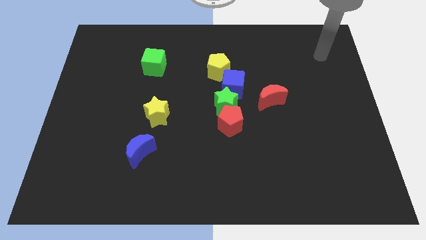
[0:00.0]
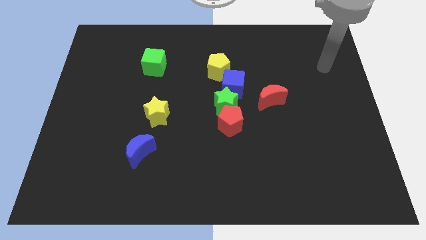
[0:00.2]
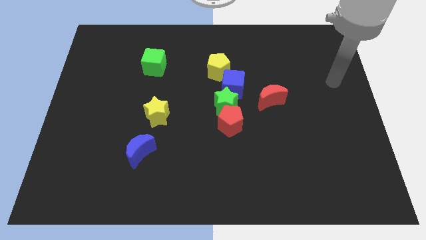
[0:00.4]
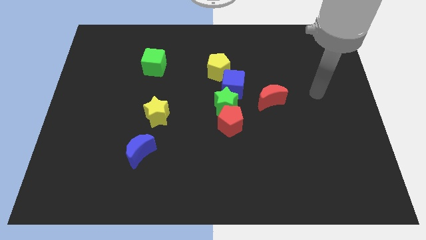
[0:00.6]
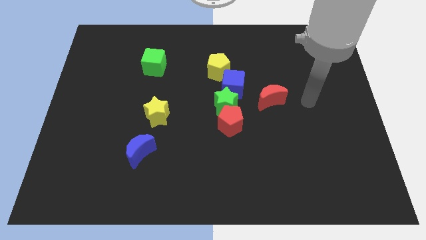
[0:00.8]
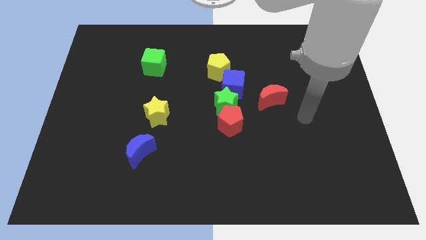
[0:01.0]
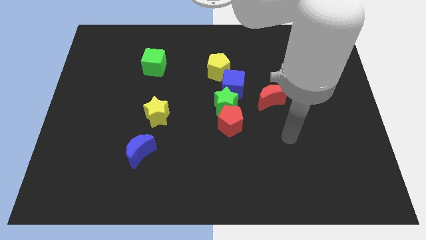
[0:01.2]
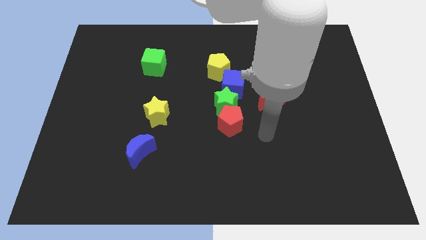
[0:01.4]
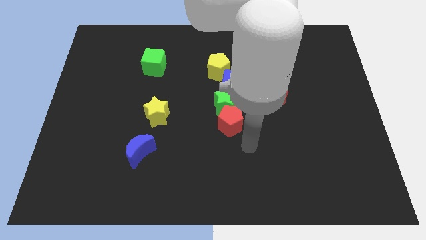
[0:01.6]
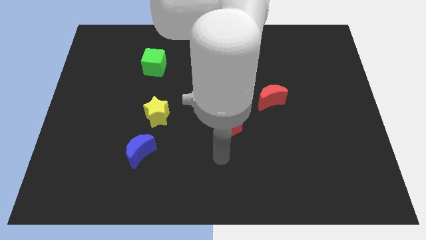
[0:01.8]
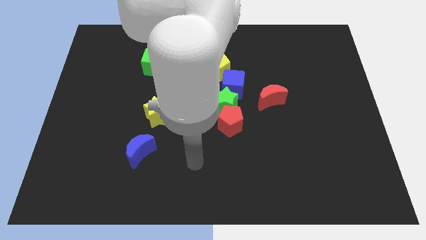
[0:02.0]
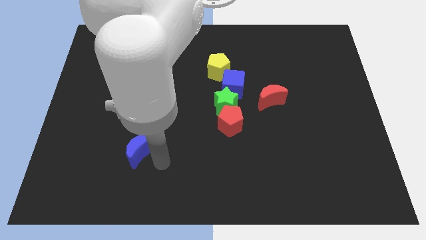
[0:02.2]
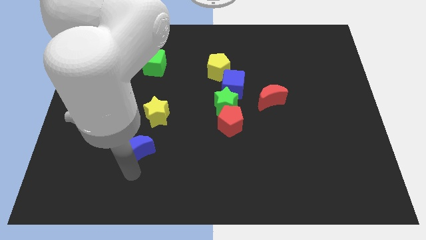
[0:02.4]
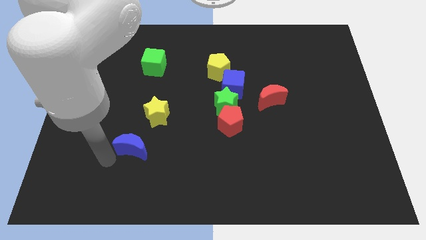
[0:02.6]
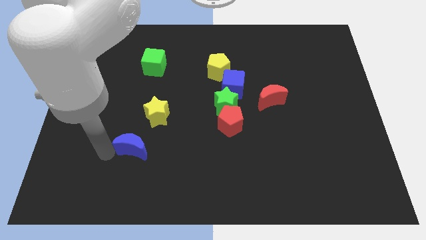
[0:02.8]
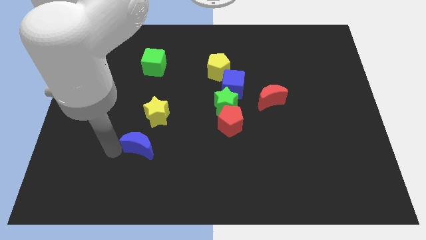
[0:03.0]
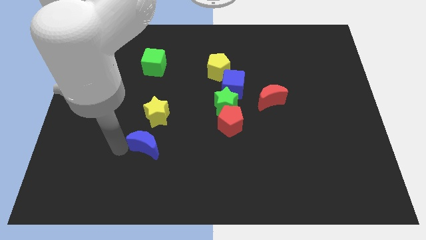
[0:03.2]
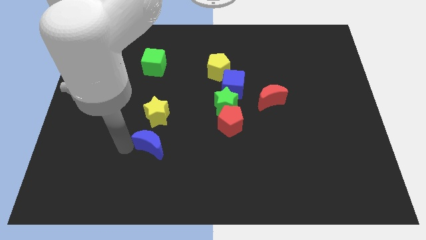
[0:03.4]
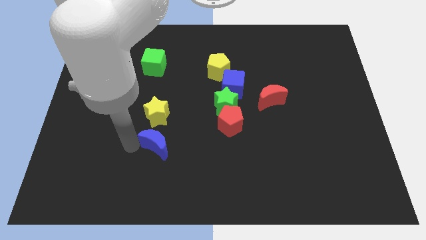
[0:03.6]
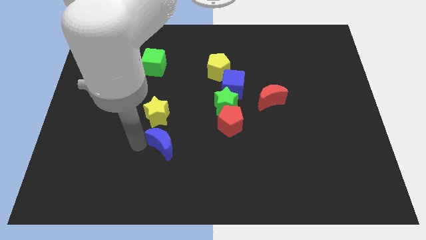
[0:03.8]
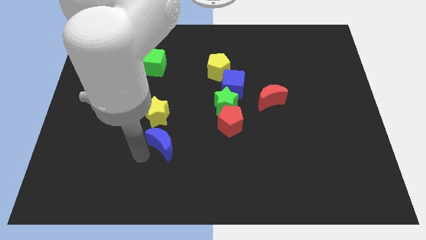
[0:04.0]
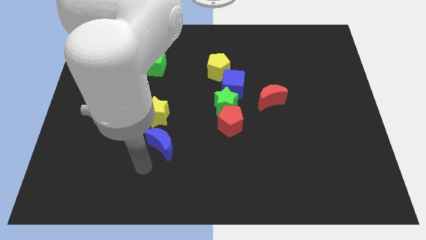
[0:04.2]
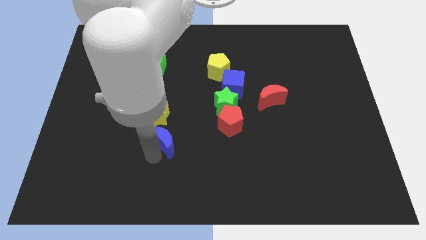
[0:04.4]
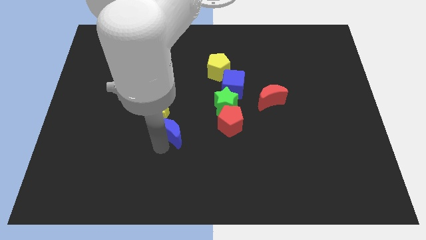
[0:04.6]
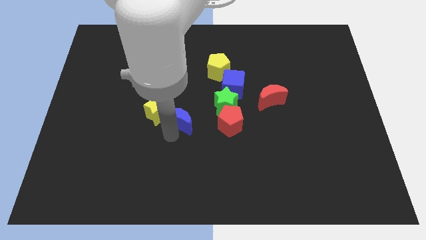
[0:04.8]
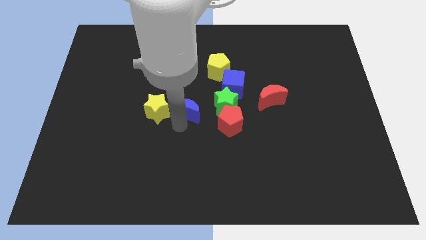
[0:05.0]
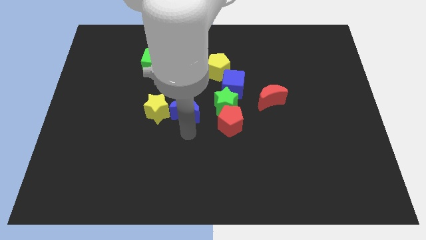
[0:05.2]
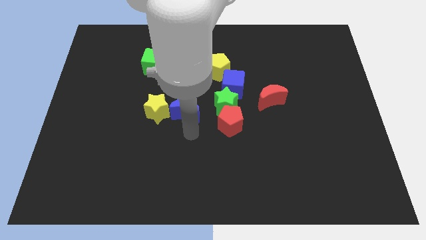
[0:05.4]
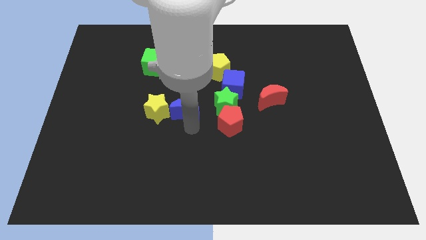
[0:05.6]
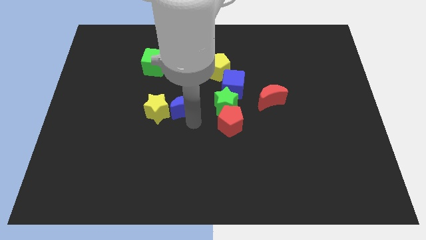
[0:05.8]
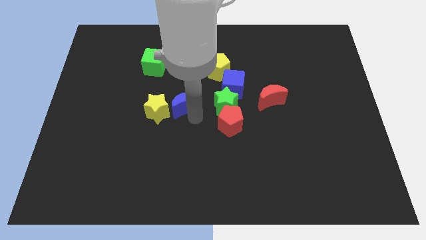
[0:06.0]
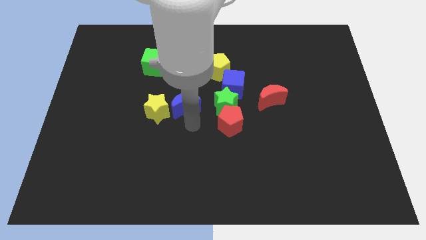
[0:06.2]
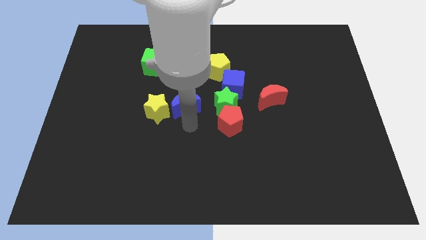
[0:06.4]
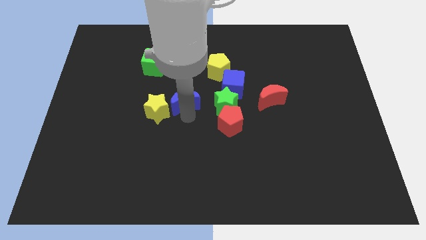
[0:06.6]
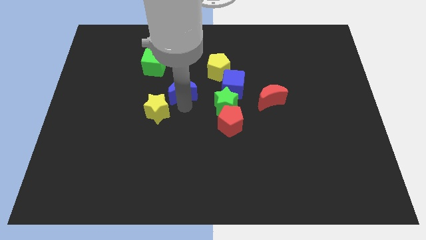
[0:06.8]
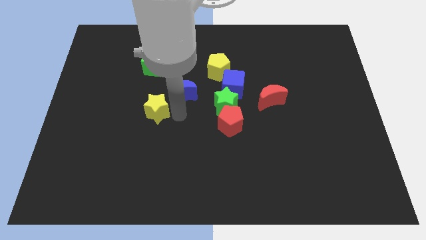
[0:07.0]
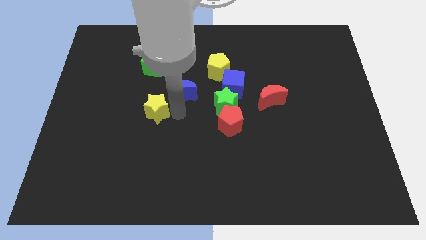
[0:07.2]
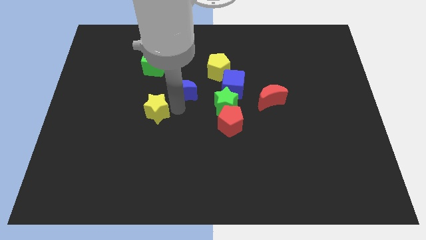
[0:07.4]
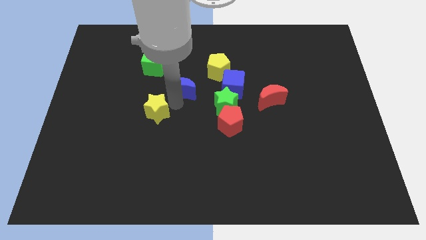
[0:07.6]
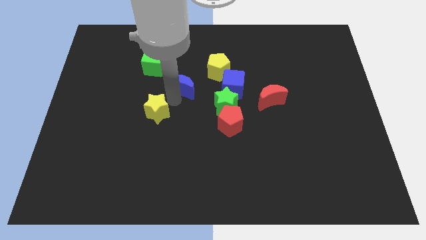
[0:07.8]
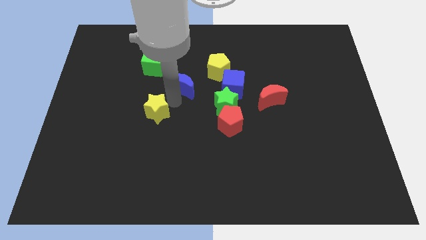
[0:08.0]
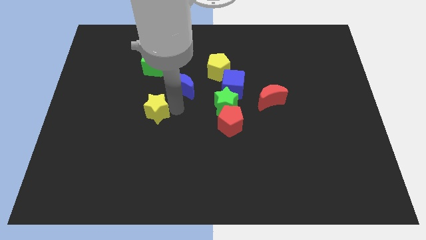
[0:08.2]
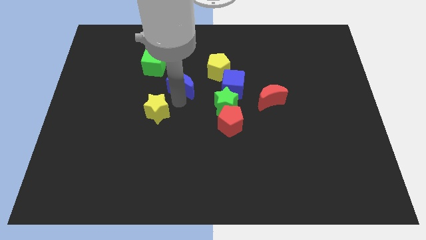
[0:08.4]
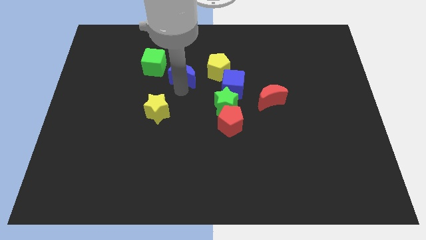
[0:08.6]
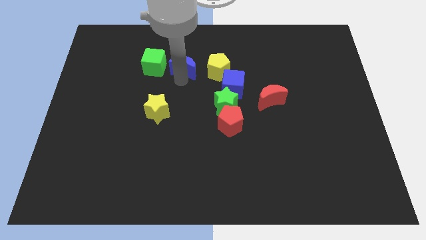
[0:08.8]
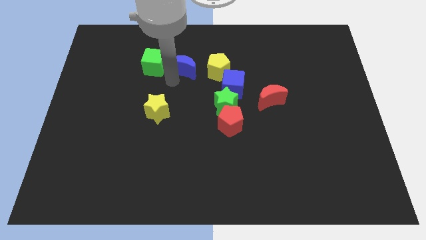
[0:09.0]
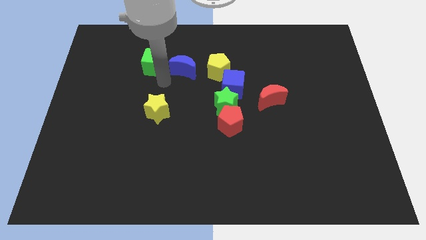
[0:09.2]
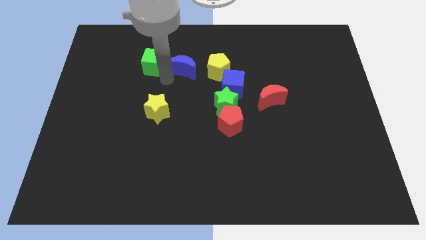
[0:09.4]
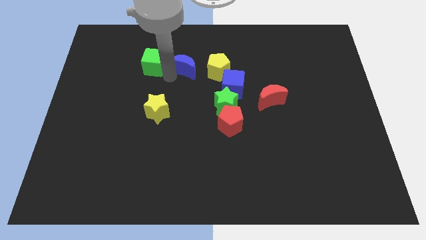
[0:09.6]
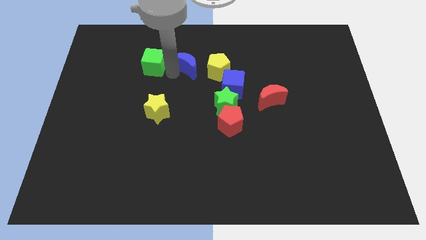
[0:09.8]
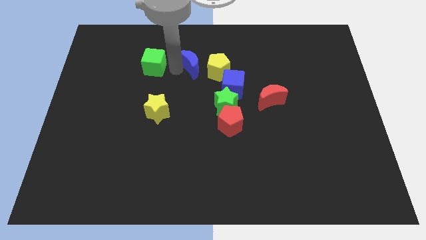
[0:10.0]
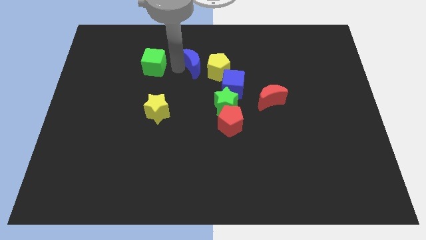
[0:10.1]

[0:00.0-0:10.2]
move the blue moon upwards and then to the right

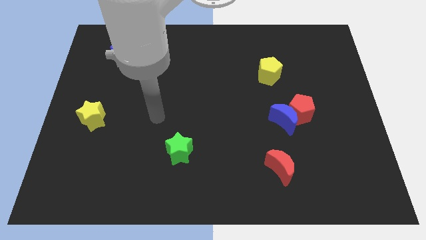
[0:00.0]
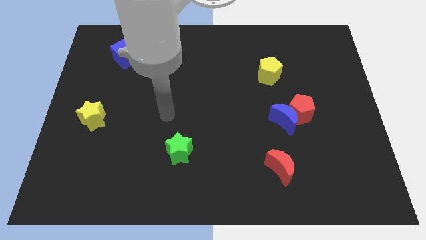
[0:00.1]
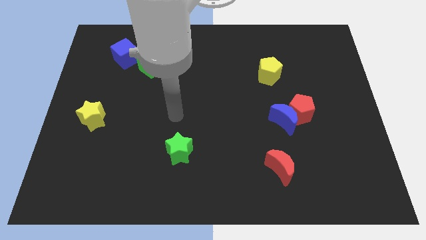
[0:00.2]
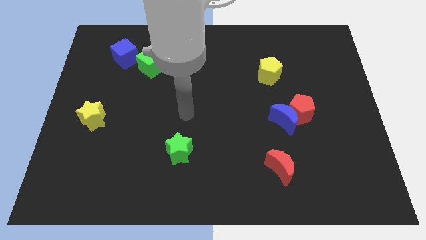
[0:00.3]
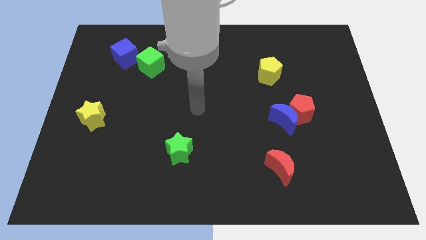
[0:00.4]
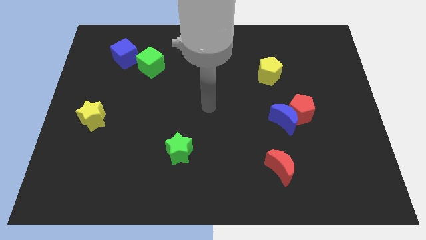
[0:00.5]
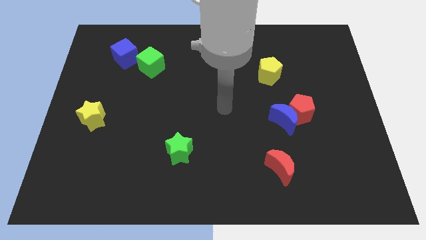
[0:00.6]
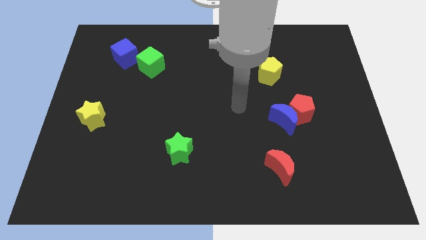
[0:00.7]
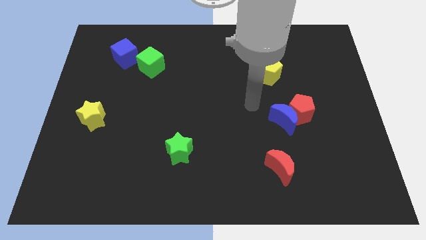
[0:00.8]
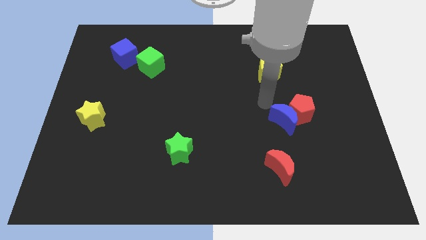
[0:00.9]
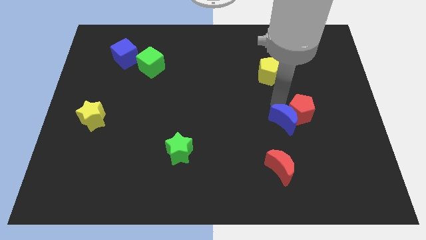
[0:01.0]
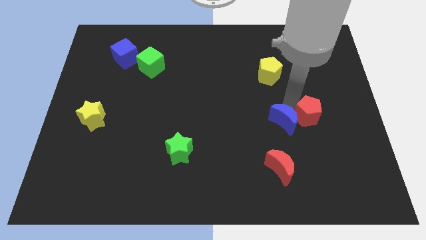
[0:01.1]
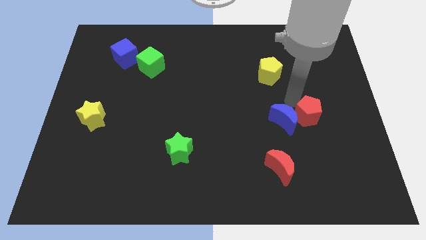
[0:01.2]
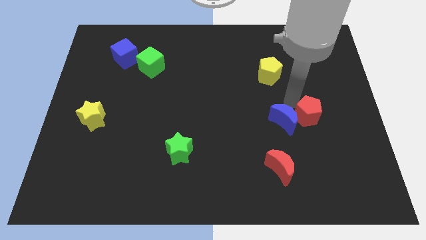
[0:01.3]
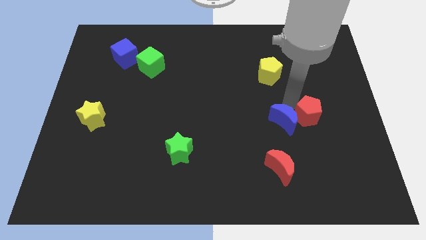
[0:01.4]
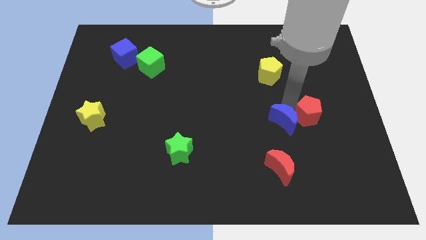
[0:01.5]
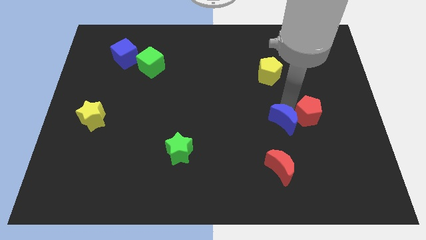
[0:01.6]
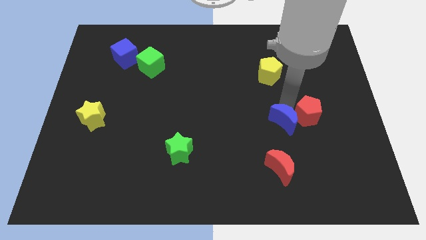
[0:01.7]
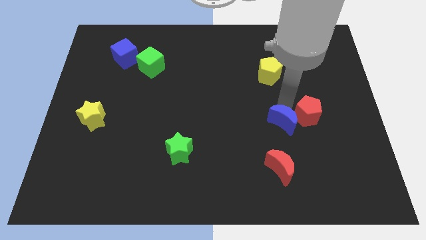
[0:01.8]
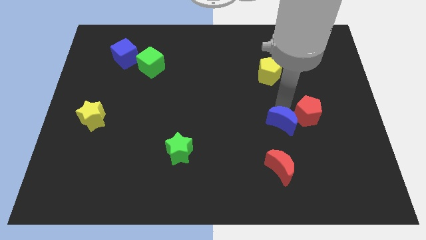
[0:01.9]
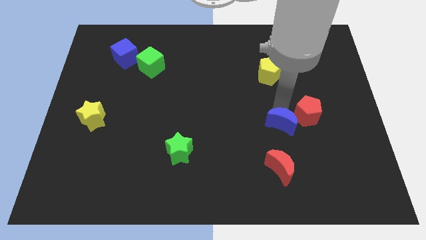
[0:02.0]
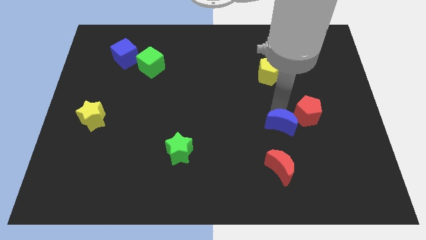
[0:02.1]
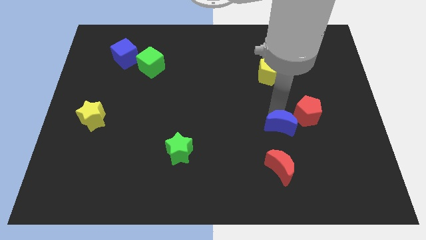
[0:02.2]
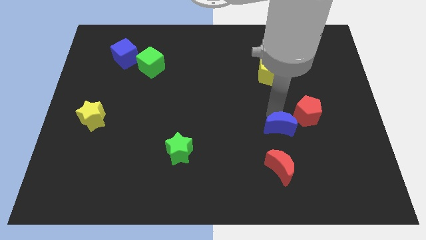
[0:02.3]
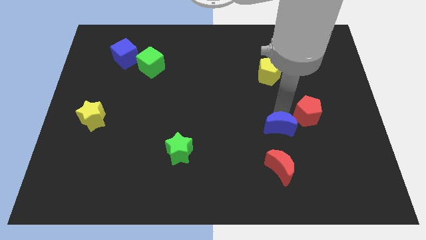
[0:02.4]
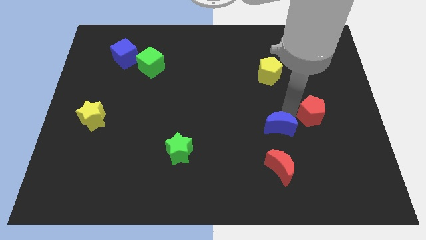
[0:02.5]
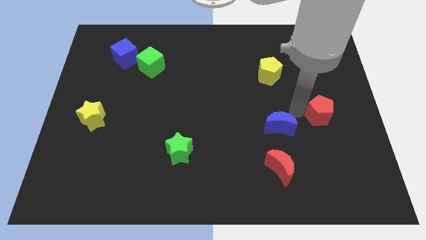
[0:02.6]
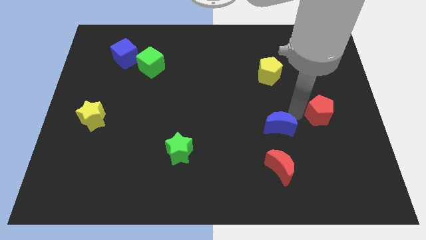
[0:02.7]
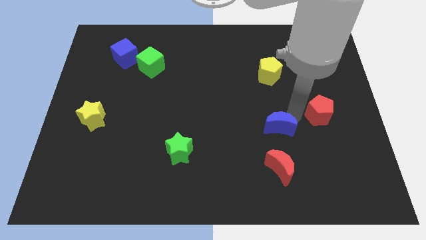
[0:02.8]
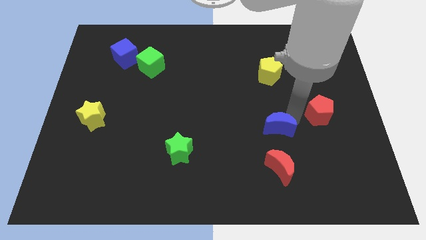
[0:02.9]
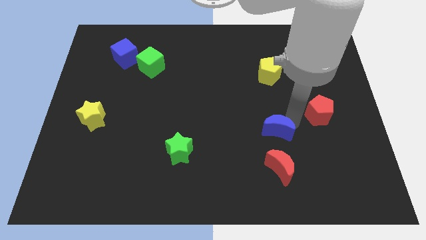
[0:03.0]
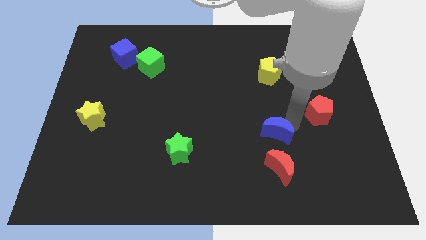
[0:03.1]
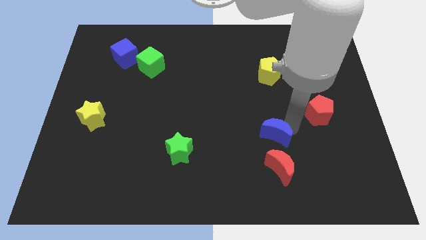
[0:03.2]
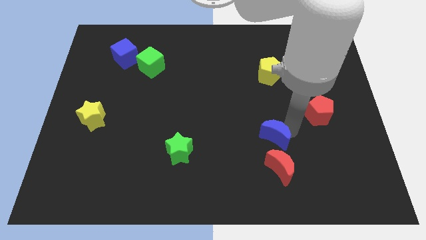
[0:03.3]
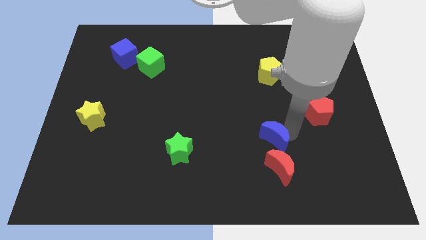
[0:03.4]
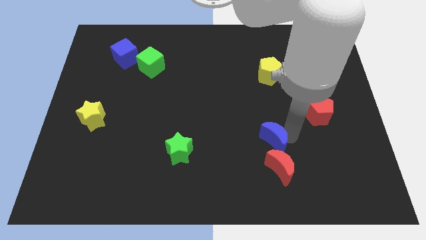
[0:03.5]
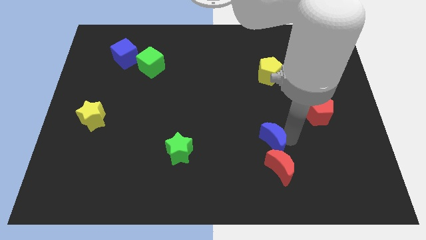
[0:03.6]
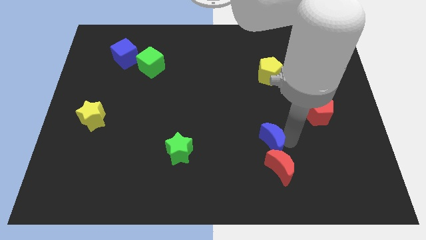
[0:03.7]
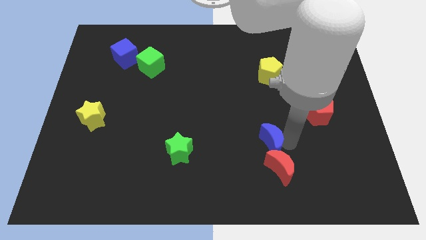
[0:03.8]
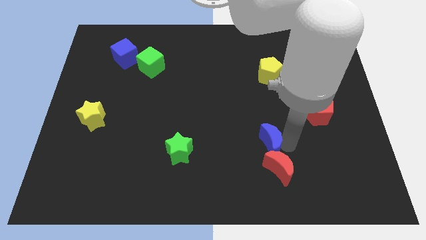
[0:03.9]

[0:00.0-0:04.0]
push the blue moon down and to the left diagonally a little
